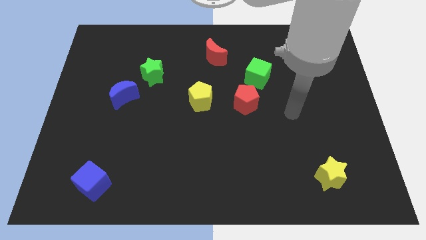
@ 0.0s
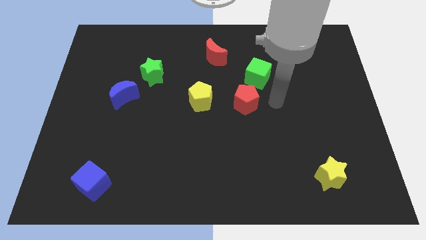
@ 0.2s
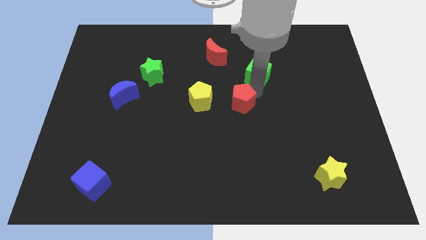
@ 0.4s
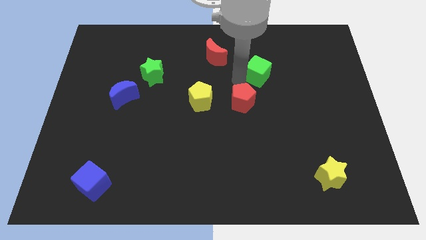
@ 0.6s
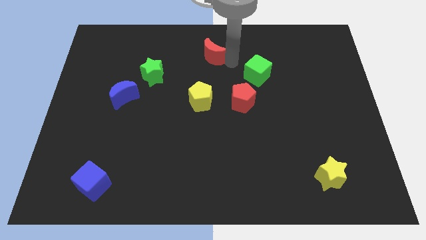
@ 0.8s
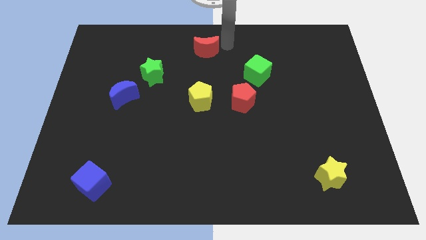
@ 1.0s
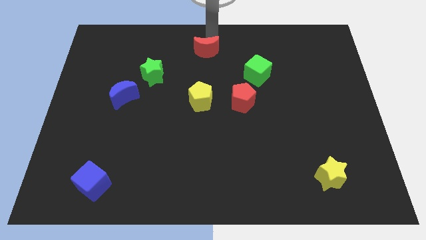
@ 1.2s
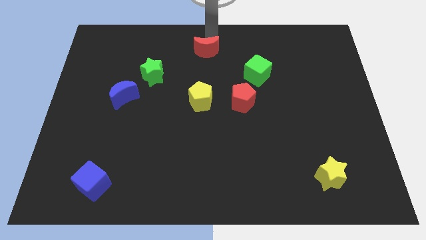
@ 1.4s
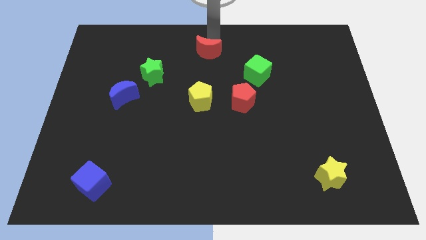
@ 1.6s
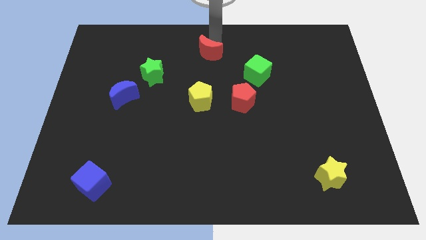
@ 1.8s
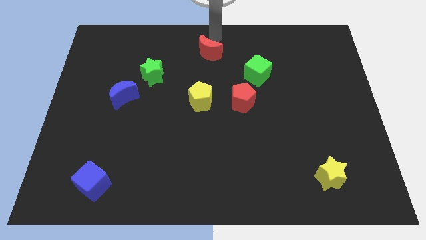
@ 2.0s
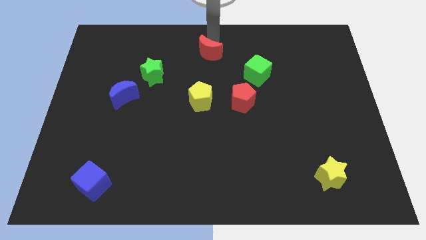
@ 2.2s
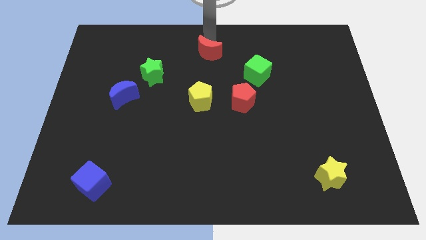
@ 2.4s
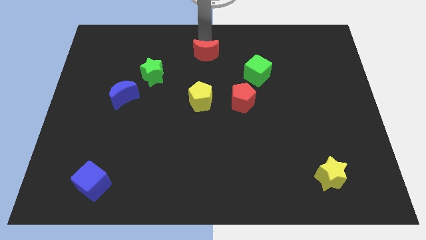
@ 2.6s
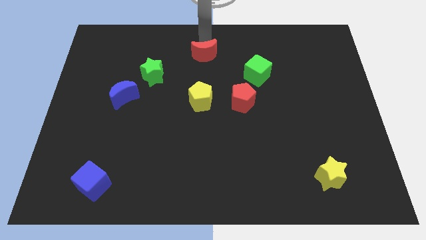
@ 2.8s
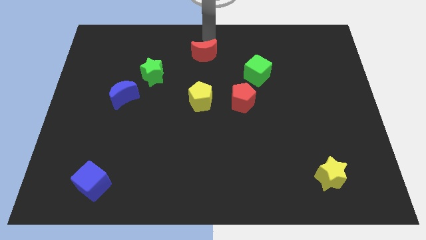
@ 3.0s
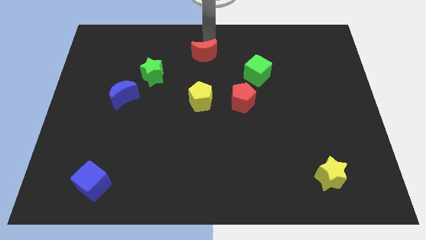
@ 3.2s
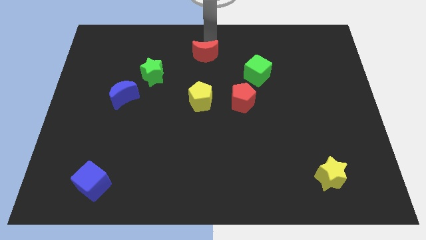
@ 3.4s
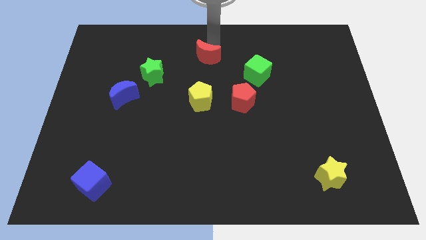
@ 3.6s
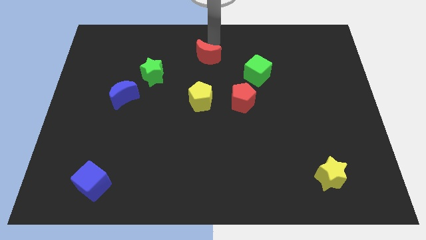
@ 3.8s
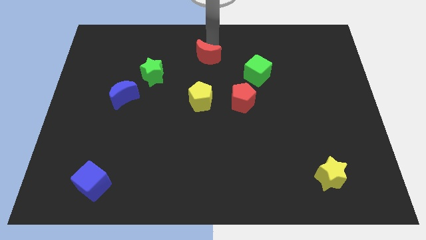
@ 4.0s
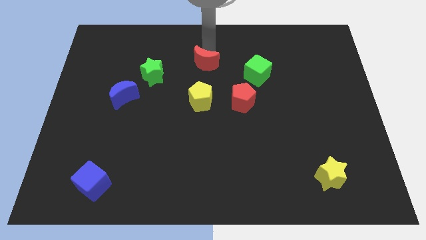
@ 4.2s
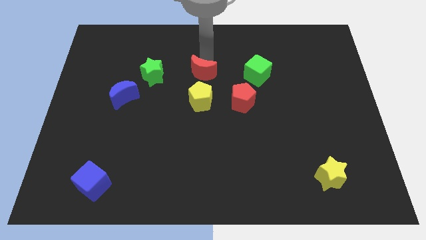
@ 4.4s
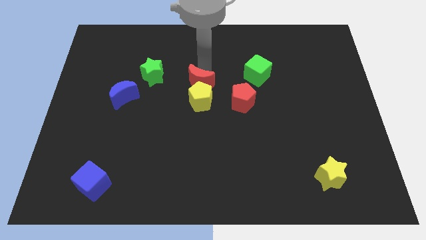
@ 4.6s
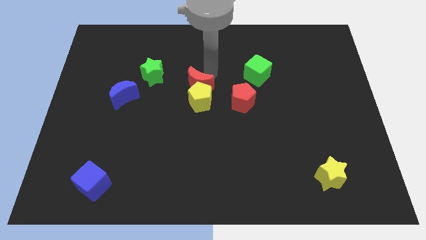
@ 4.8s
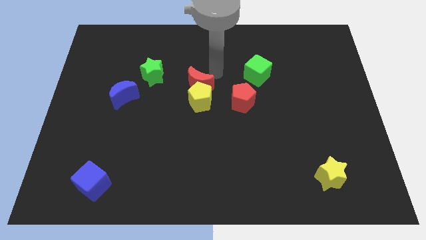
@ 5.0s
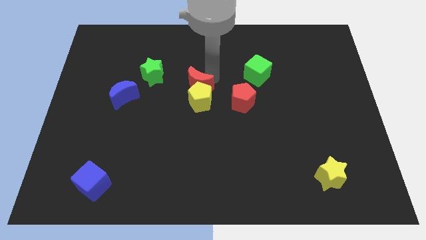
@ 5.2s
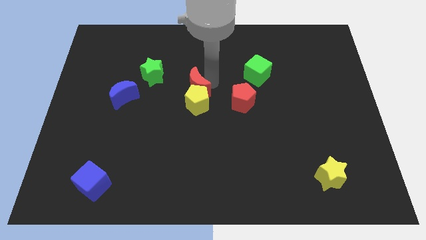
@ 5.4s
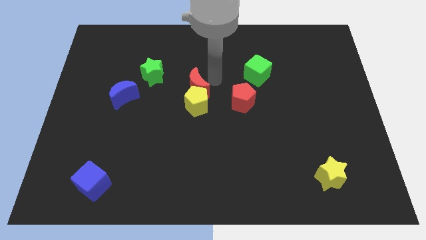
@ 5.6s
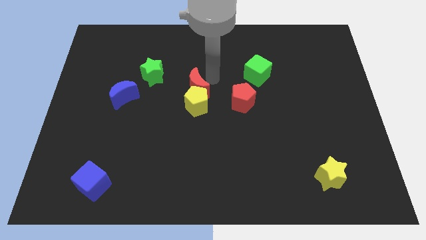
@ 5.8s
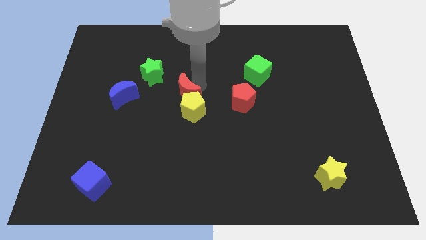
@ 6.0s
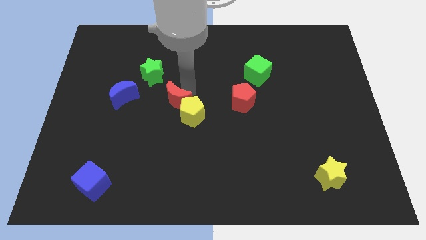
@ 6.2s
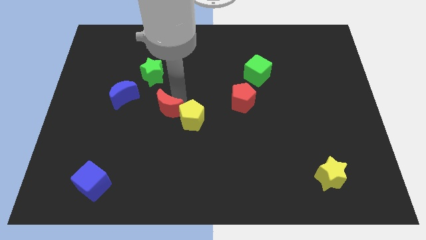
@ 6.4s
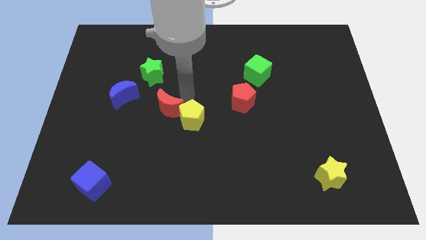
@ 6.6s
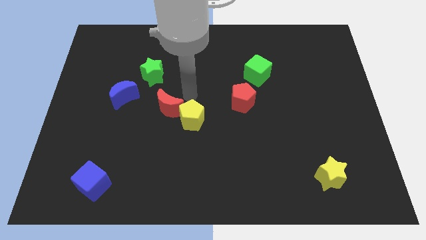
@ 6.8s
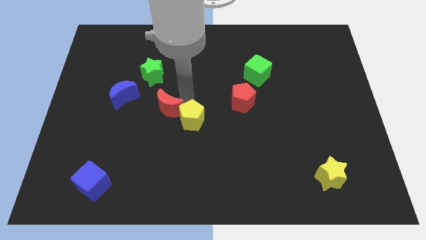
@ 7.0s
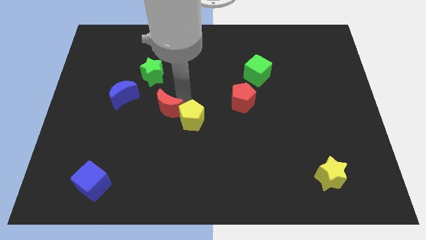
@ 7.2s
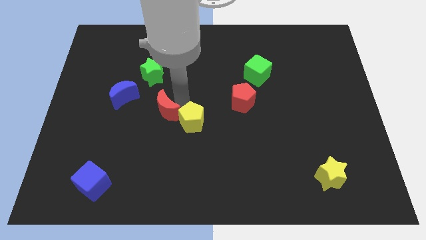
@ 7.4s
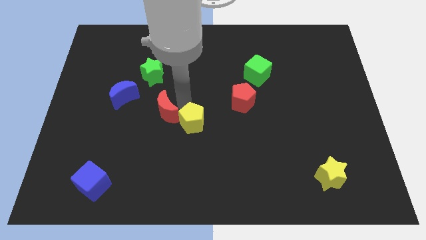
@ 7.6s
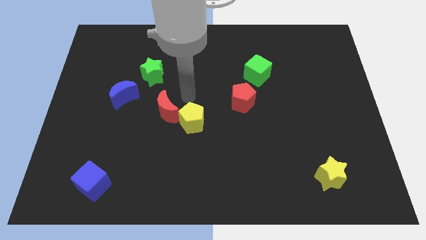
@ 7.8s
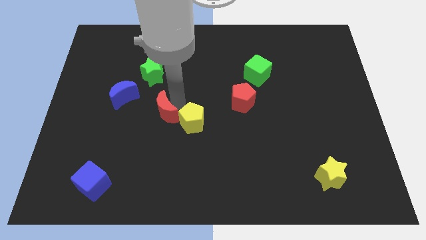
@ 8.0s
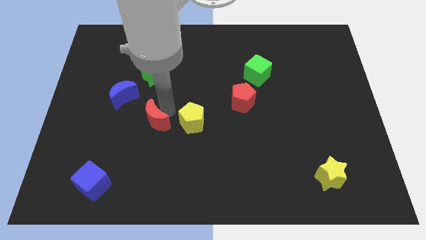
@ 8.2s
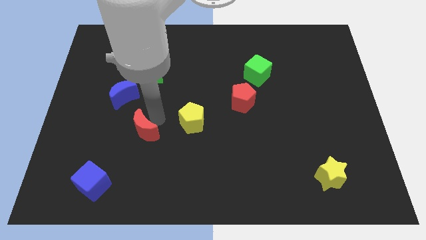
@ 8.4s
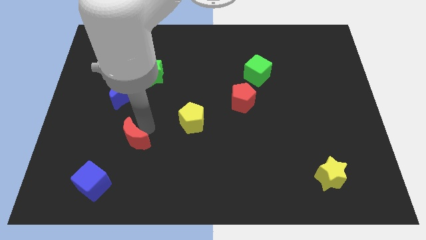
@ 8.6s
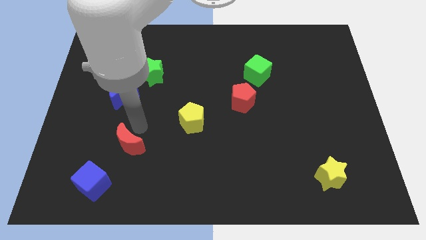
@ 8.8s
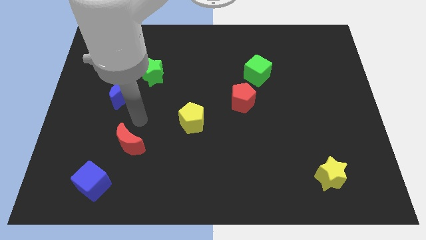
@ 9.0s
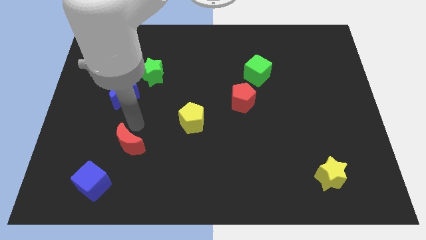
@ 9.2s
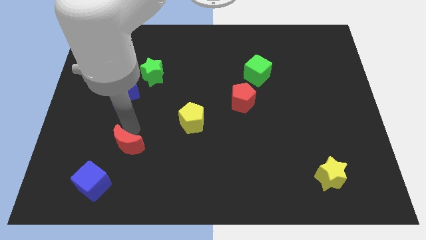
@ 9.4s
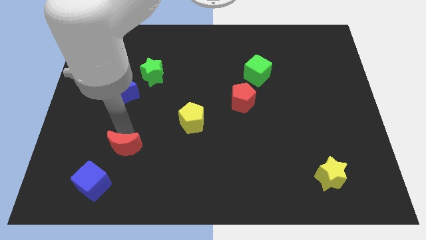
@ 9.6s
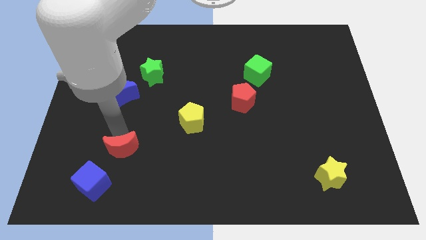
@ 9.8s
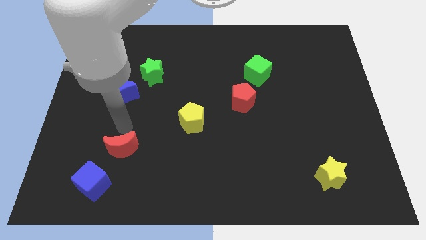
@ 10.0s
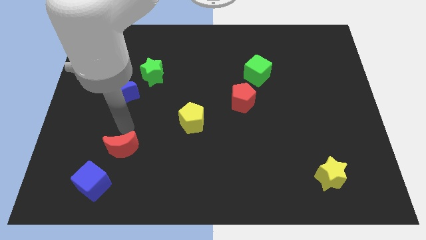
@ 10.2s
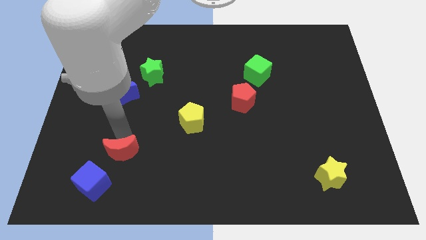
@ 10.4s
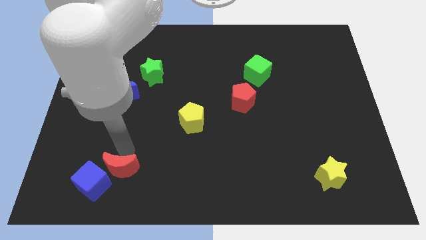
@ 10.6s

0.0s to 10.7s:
put the red moon towards the blue cube

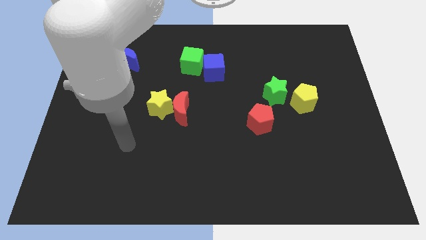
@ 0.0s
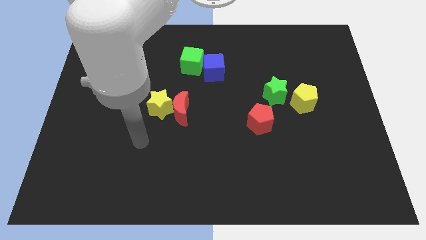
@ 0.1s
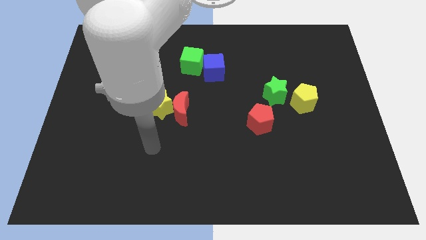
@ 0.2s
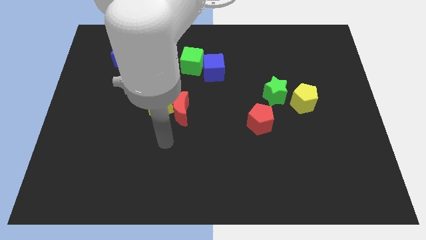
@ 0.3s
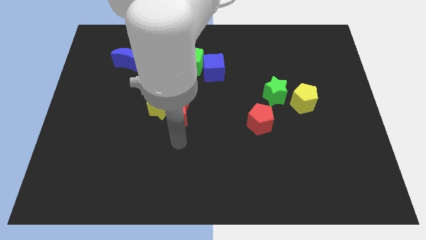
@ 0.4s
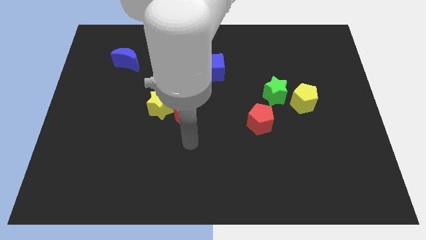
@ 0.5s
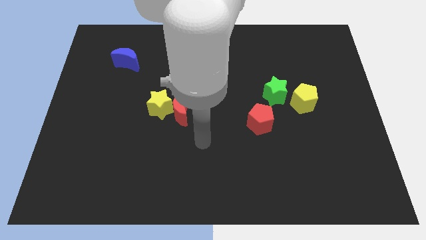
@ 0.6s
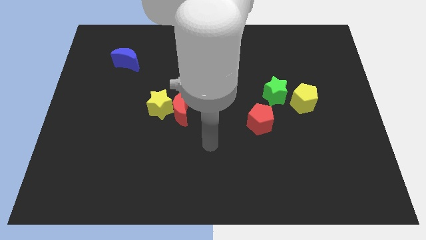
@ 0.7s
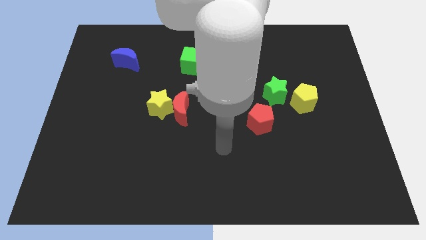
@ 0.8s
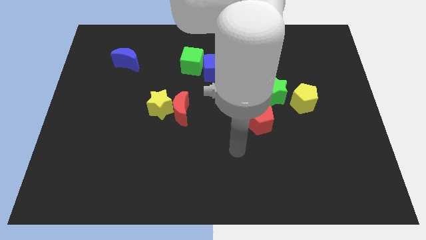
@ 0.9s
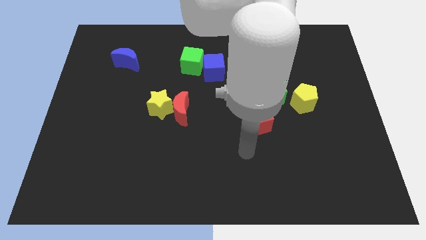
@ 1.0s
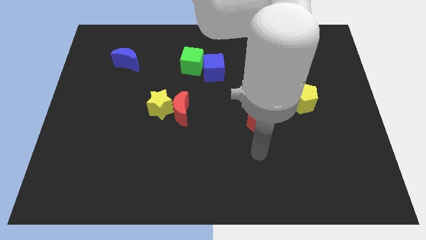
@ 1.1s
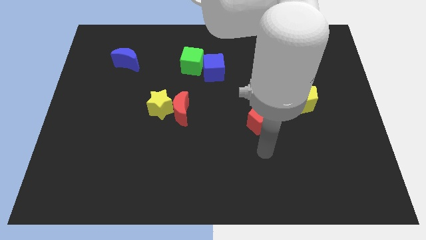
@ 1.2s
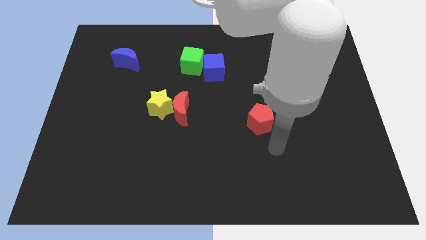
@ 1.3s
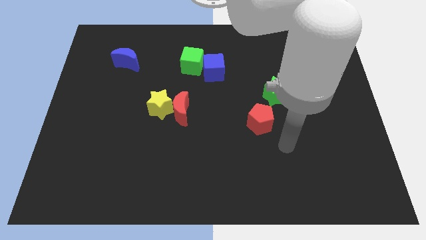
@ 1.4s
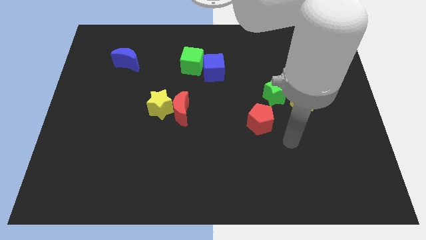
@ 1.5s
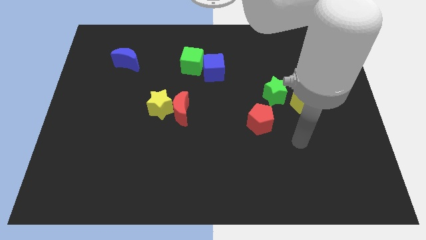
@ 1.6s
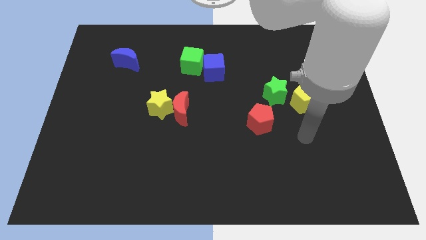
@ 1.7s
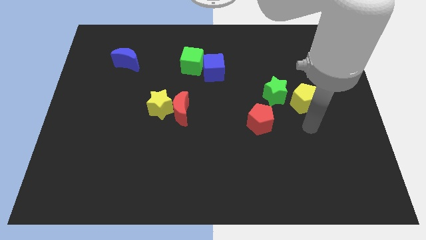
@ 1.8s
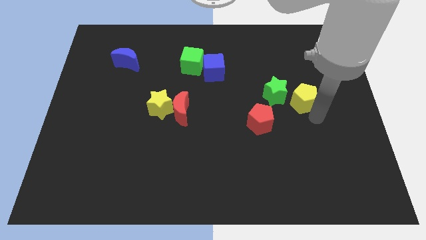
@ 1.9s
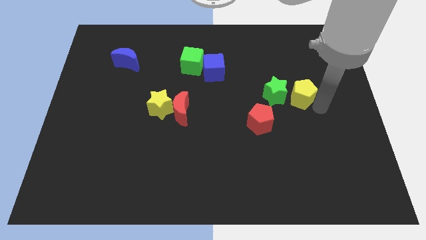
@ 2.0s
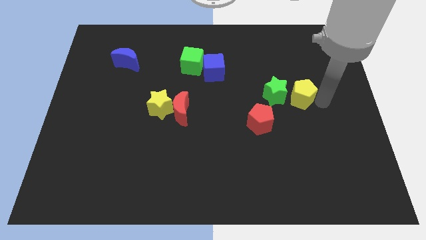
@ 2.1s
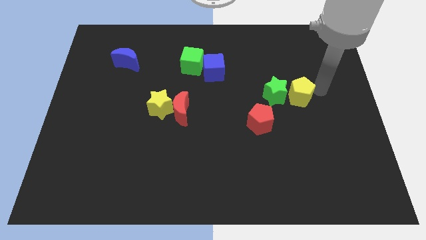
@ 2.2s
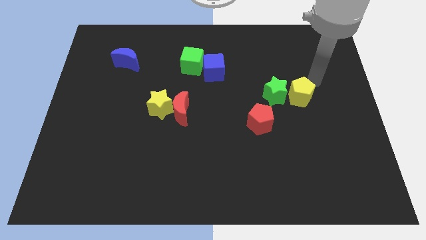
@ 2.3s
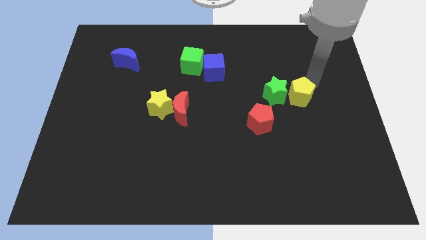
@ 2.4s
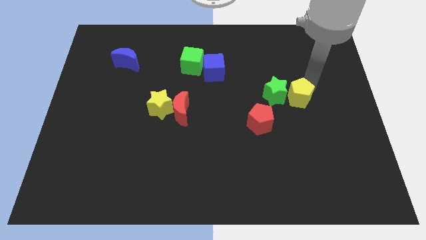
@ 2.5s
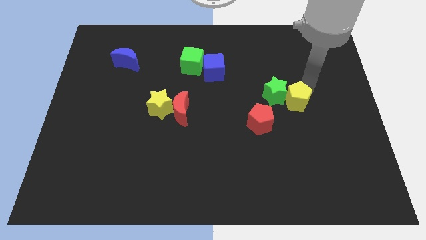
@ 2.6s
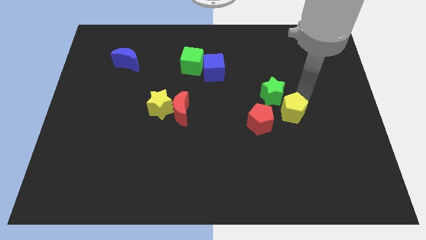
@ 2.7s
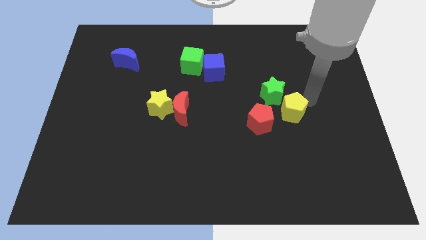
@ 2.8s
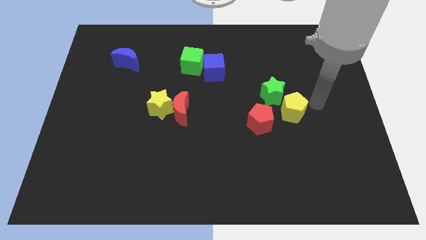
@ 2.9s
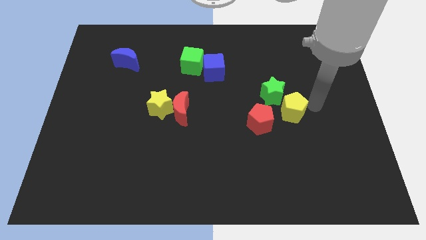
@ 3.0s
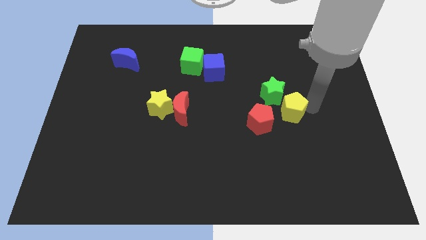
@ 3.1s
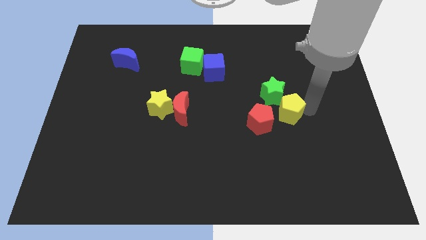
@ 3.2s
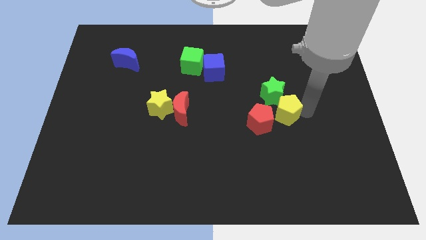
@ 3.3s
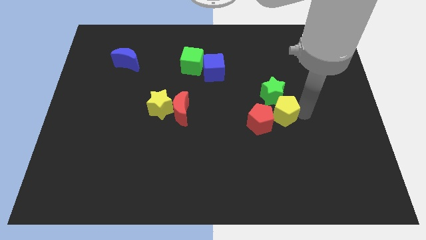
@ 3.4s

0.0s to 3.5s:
slide the yellow pentagon next to the red pentagon
